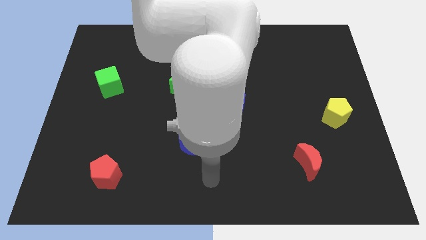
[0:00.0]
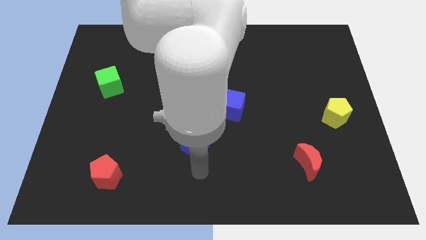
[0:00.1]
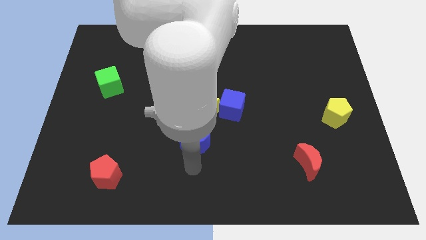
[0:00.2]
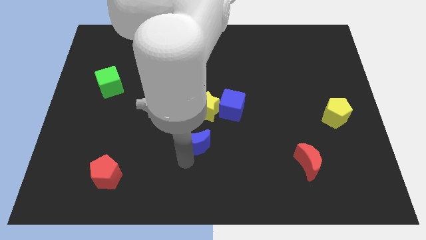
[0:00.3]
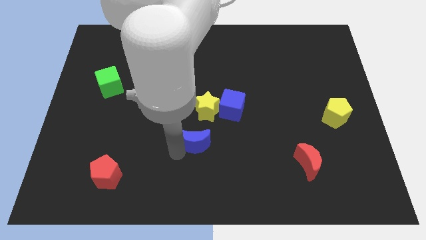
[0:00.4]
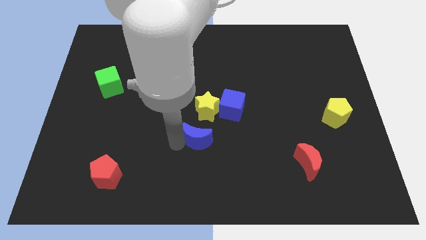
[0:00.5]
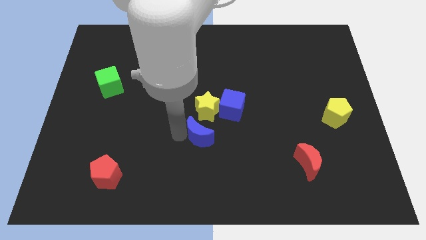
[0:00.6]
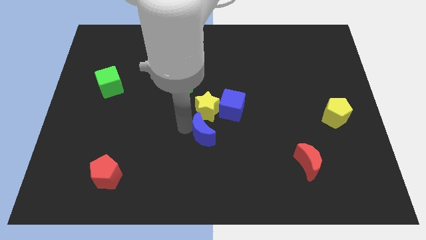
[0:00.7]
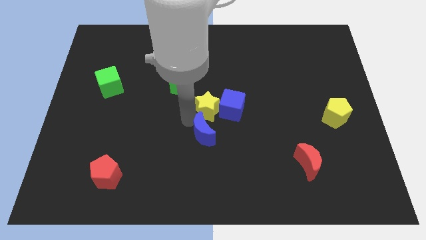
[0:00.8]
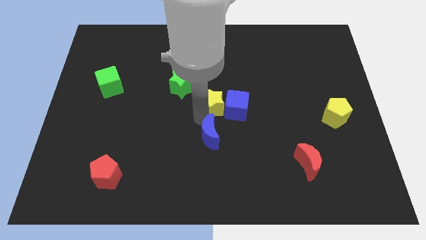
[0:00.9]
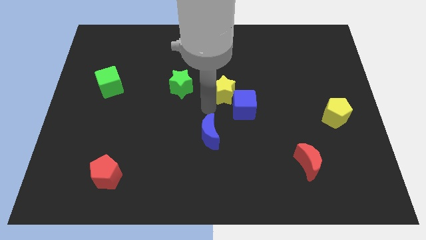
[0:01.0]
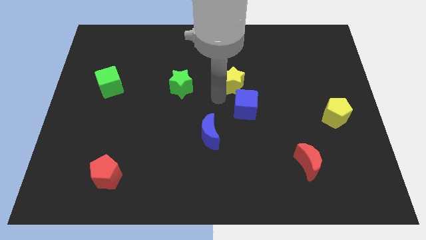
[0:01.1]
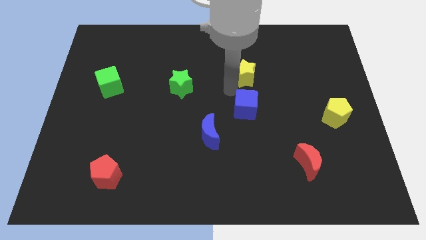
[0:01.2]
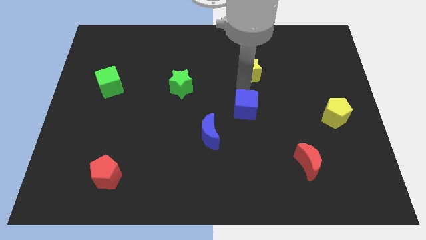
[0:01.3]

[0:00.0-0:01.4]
separate the blue cube from the yellow star

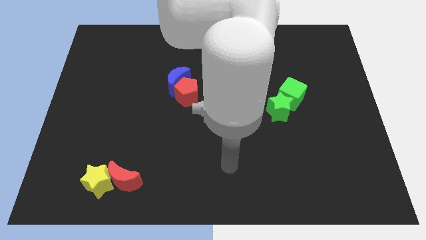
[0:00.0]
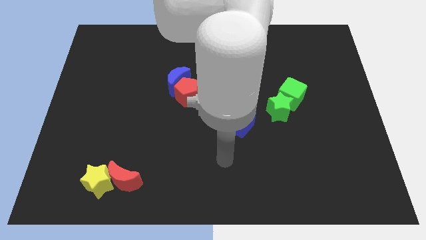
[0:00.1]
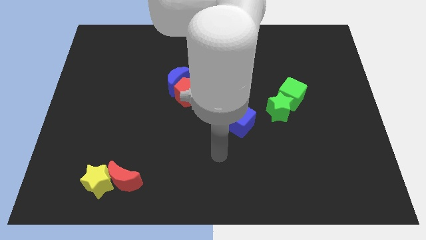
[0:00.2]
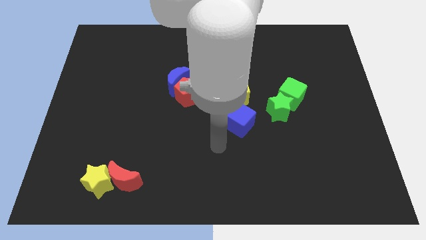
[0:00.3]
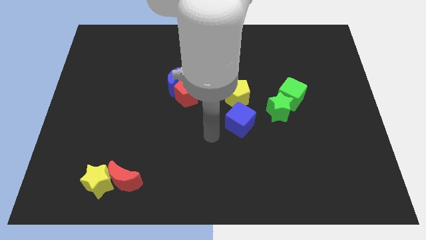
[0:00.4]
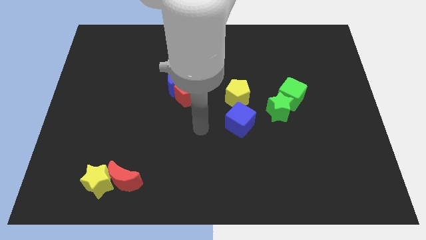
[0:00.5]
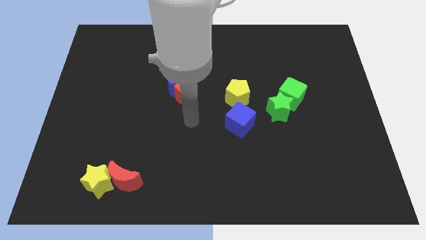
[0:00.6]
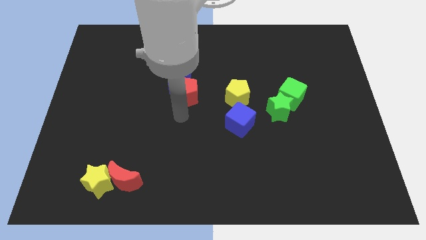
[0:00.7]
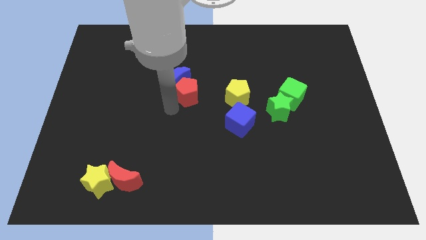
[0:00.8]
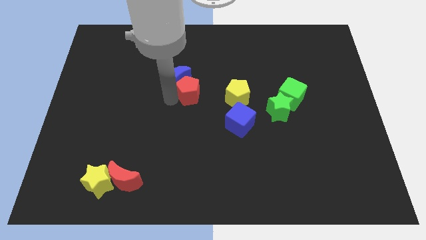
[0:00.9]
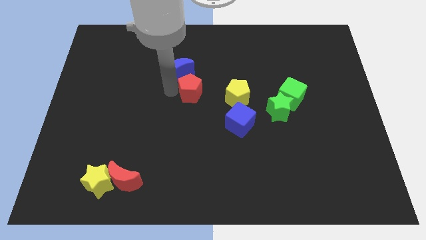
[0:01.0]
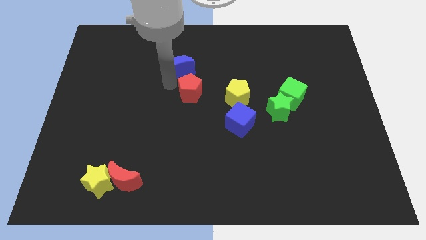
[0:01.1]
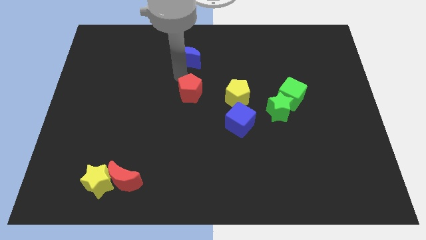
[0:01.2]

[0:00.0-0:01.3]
pull the red pentagon apart from the blue moon

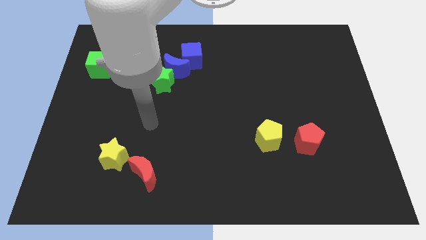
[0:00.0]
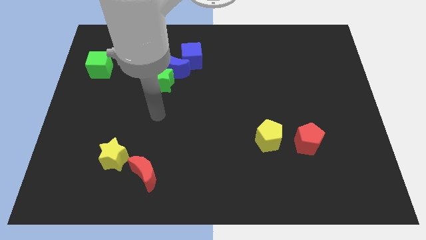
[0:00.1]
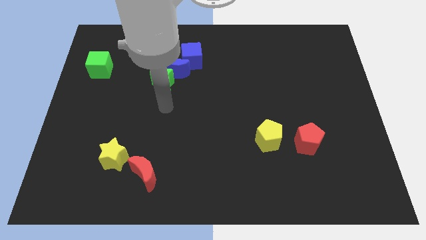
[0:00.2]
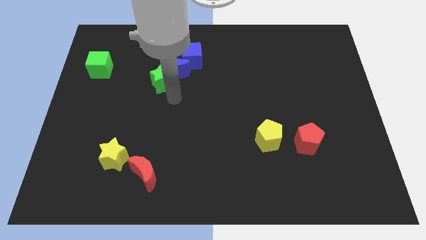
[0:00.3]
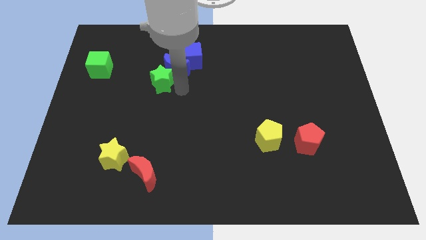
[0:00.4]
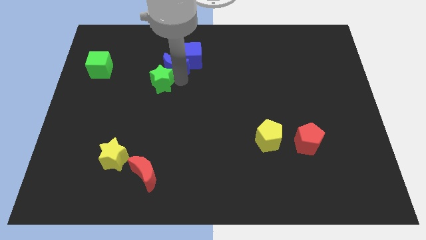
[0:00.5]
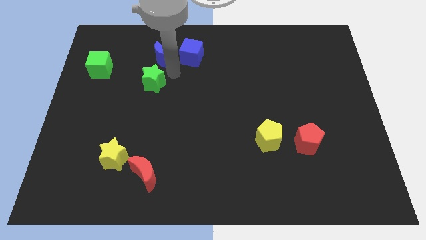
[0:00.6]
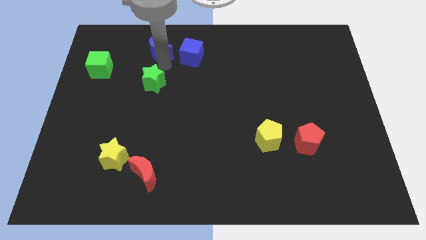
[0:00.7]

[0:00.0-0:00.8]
separate the green star from the blue moon

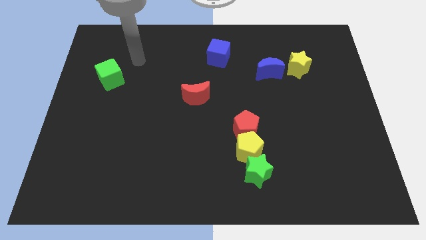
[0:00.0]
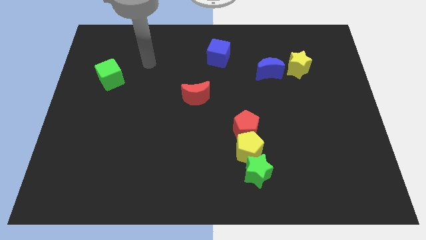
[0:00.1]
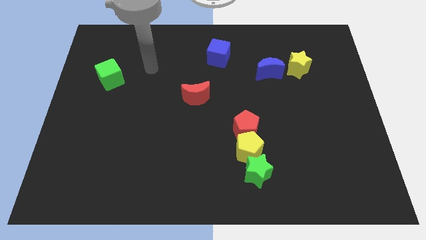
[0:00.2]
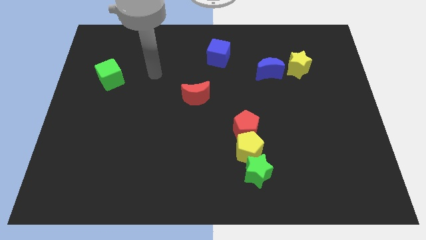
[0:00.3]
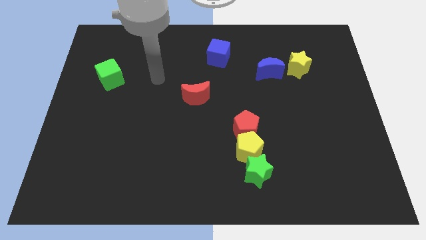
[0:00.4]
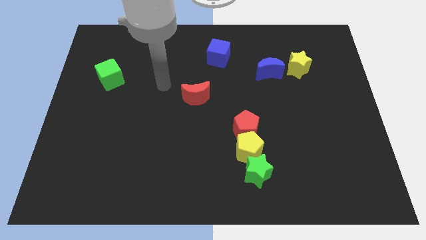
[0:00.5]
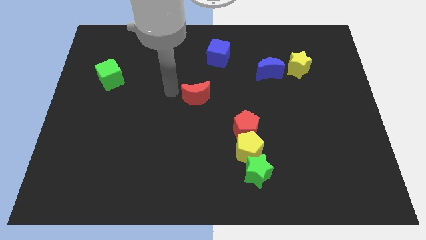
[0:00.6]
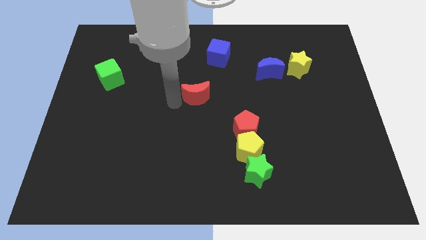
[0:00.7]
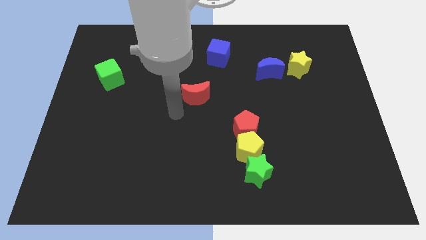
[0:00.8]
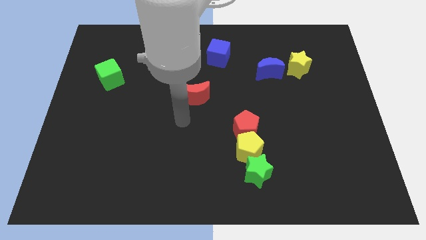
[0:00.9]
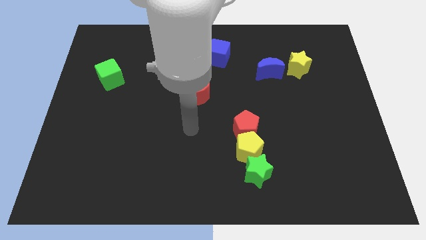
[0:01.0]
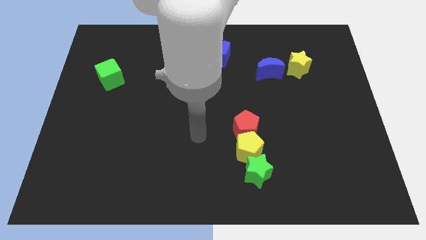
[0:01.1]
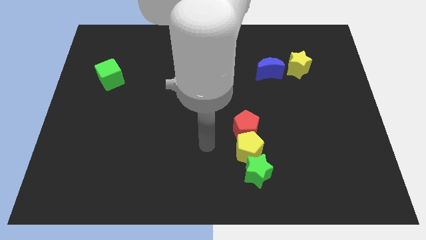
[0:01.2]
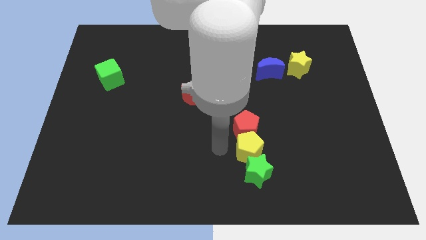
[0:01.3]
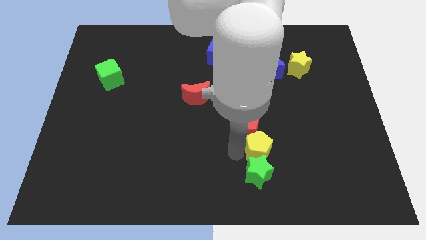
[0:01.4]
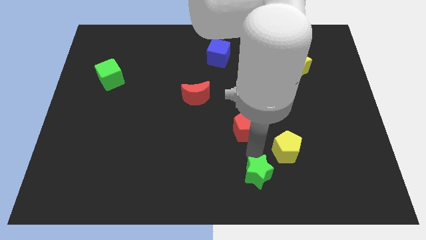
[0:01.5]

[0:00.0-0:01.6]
pull the red pentagon apart from the yellow pentagon

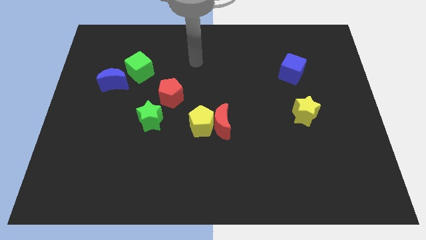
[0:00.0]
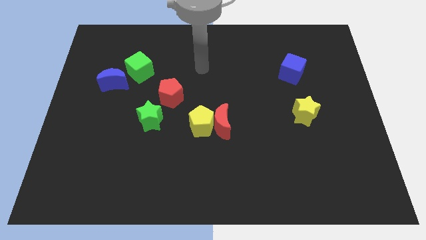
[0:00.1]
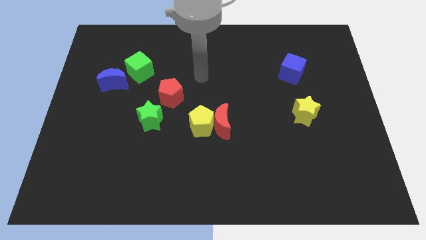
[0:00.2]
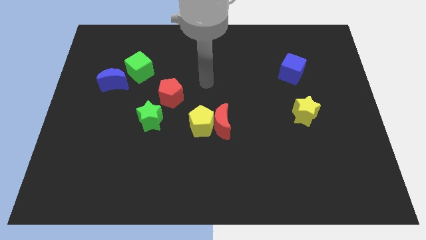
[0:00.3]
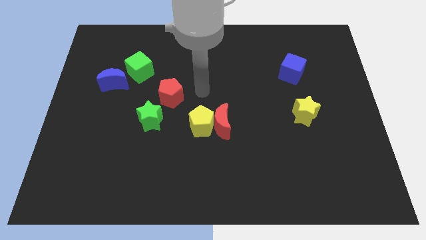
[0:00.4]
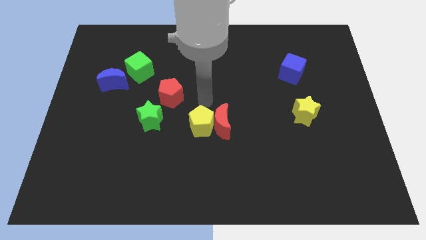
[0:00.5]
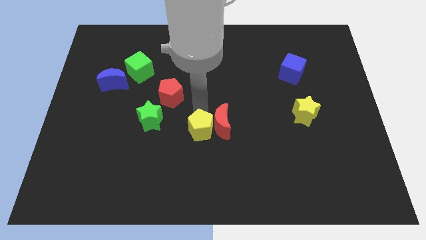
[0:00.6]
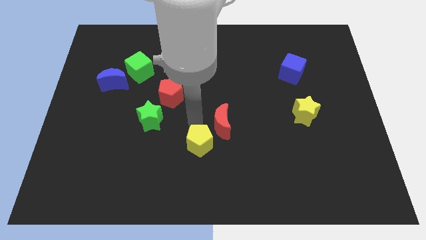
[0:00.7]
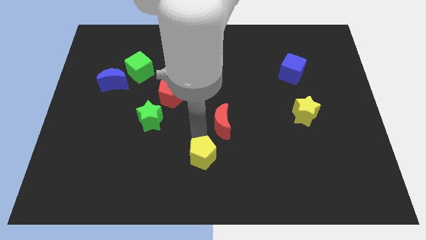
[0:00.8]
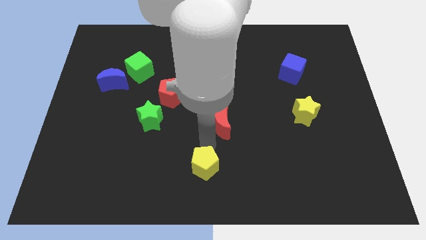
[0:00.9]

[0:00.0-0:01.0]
move the red moon away from the yellow pentagon

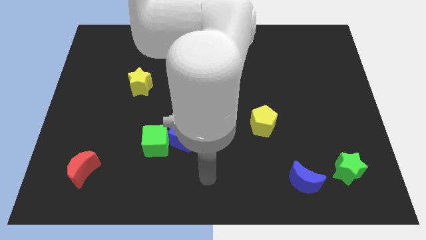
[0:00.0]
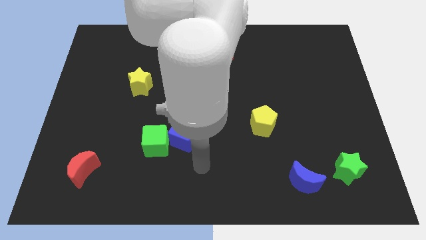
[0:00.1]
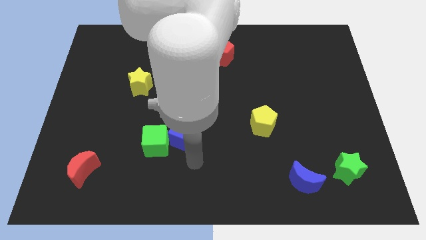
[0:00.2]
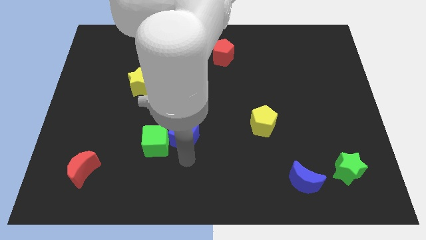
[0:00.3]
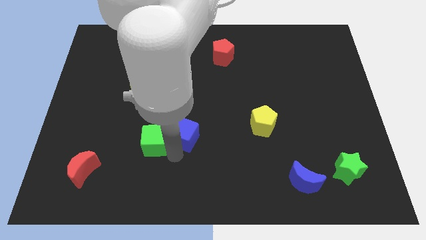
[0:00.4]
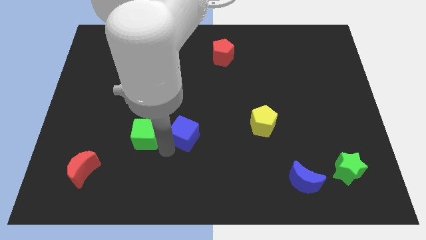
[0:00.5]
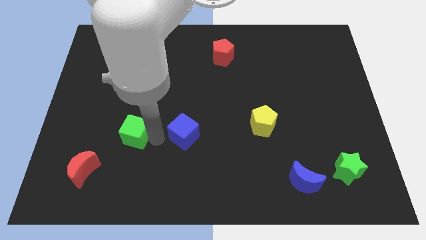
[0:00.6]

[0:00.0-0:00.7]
pull the blue cube apart from the green cube

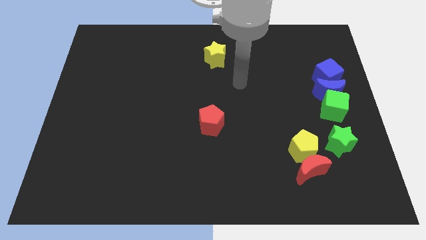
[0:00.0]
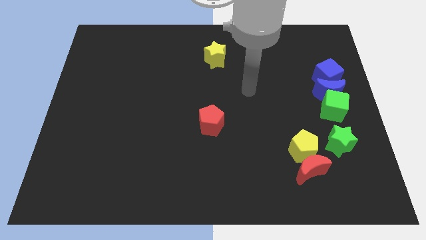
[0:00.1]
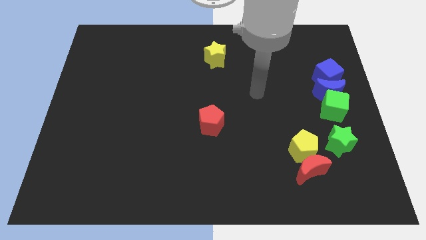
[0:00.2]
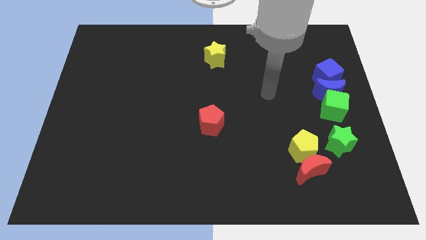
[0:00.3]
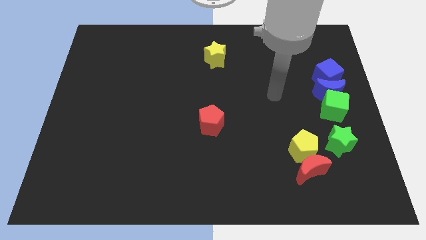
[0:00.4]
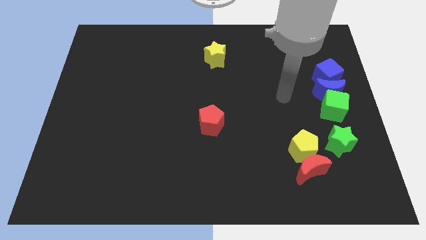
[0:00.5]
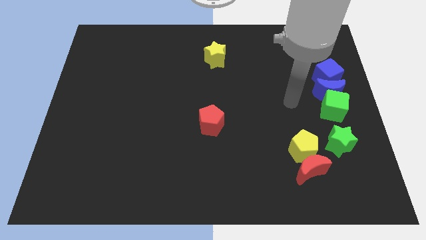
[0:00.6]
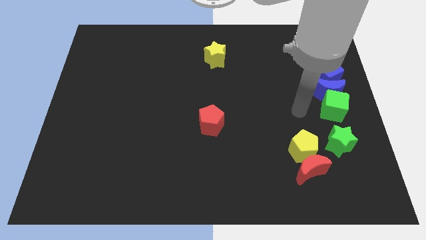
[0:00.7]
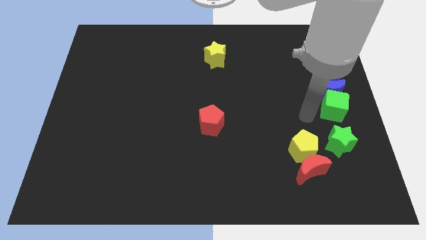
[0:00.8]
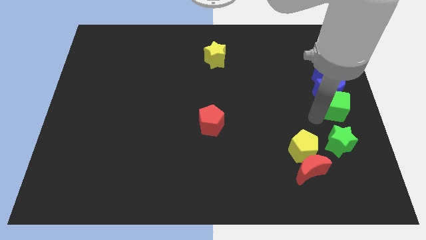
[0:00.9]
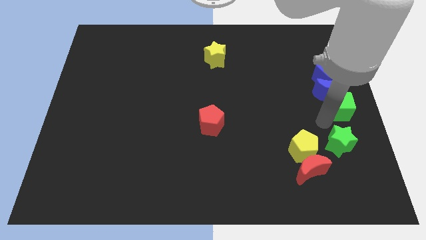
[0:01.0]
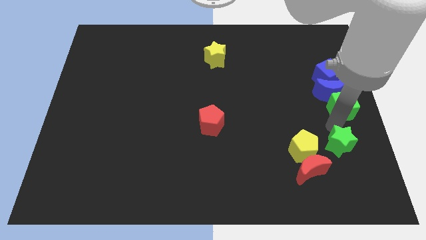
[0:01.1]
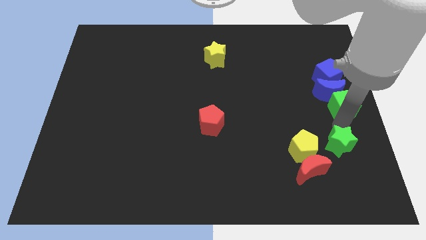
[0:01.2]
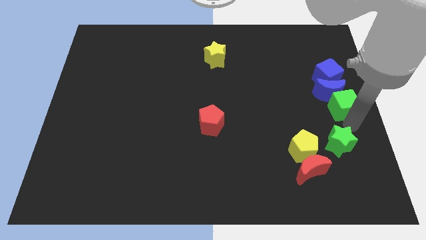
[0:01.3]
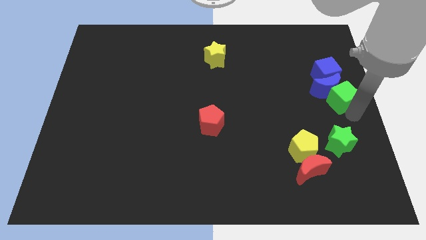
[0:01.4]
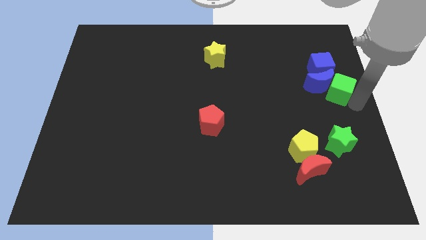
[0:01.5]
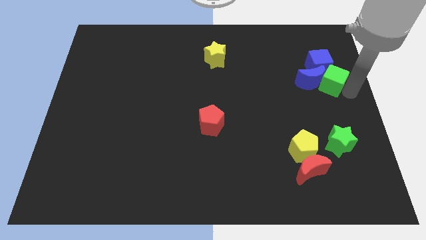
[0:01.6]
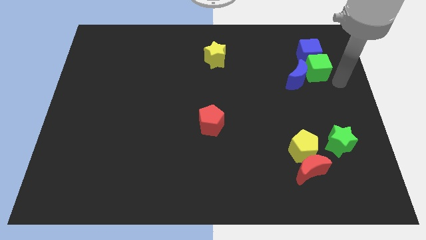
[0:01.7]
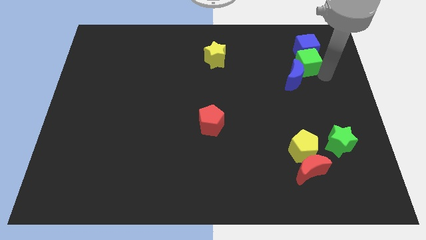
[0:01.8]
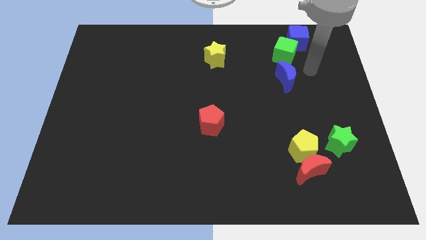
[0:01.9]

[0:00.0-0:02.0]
pull the blue moon apart from the green cube and blue cube

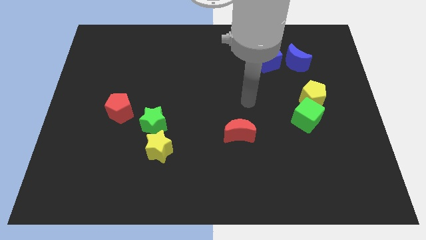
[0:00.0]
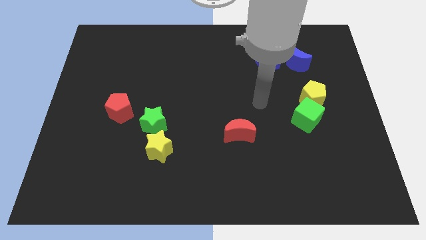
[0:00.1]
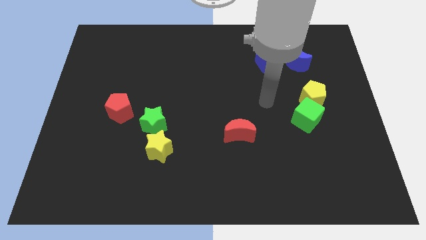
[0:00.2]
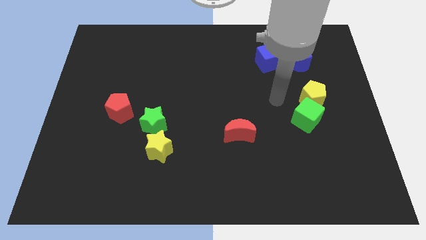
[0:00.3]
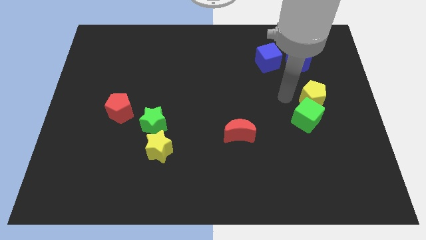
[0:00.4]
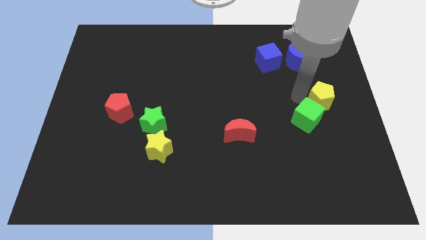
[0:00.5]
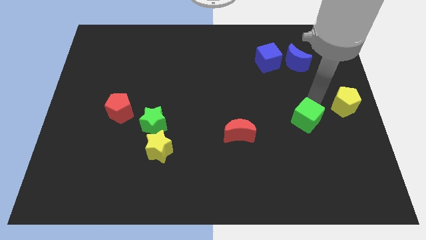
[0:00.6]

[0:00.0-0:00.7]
move the green cube away from the yellow pentagon
